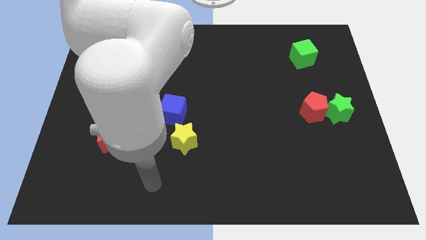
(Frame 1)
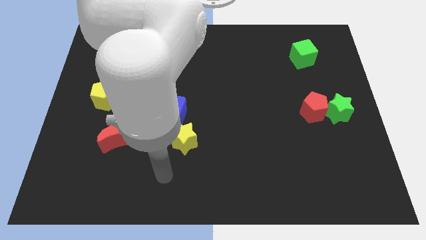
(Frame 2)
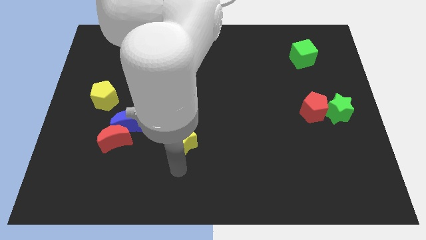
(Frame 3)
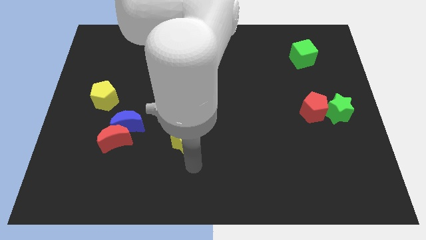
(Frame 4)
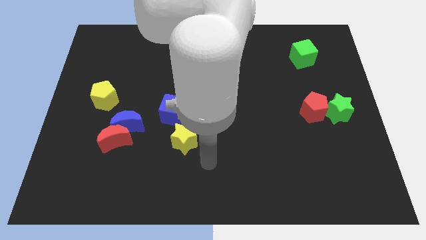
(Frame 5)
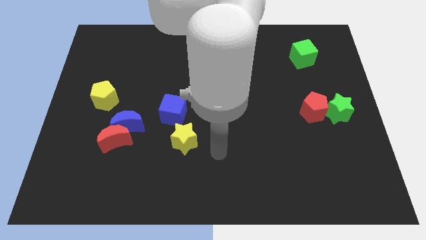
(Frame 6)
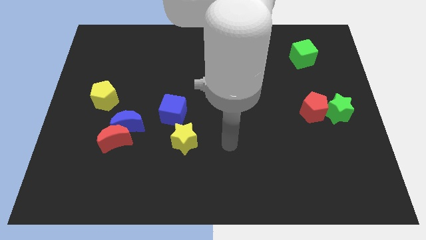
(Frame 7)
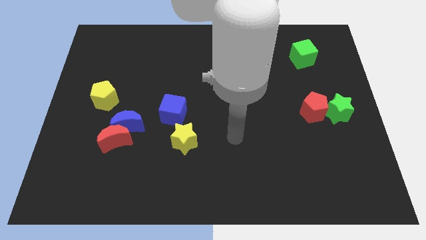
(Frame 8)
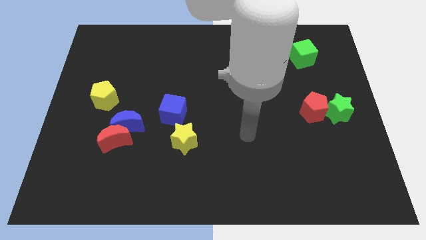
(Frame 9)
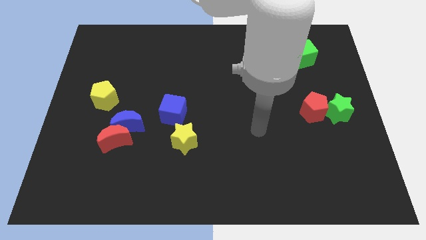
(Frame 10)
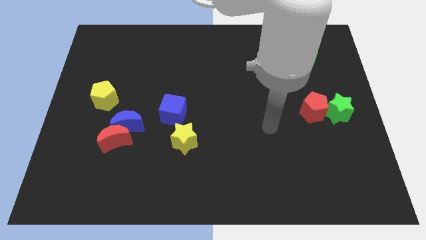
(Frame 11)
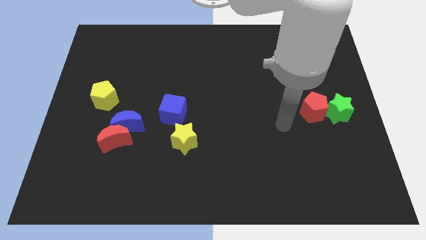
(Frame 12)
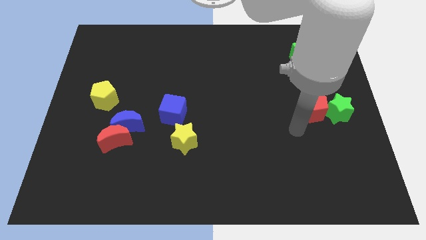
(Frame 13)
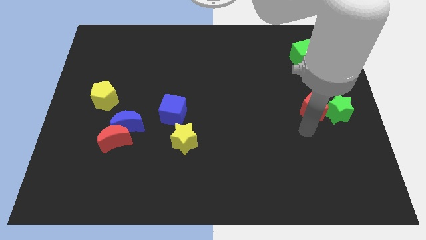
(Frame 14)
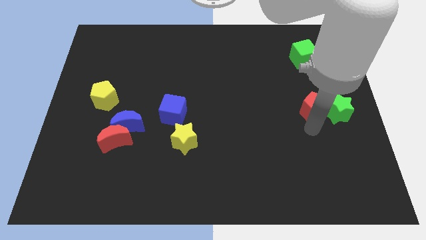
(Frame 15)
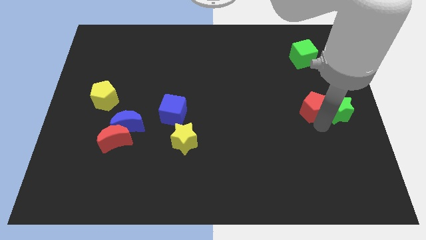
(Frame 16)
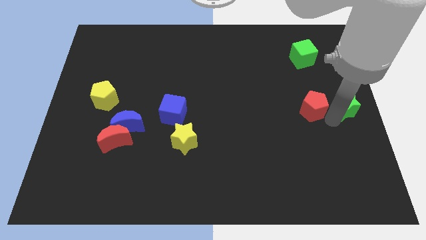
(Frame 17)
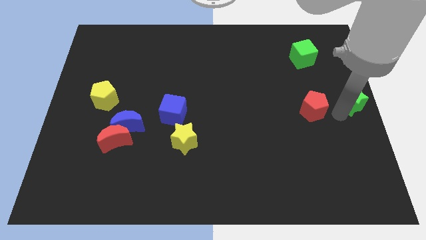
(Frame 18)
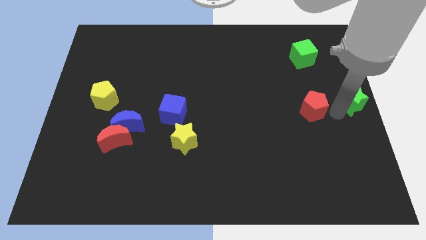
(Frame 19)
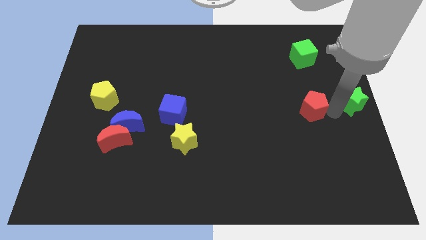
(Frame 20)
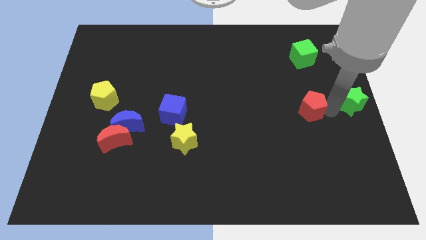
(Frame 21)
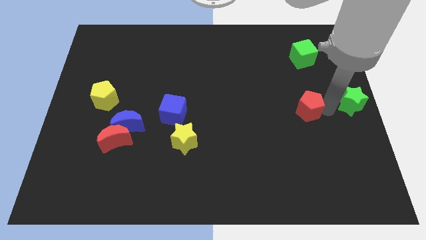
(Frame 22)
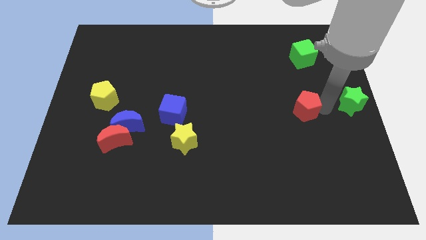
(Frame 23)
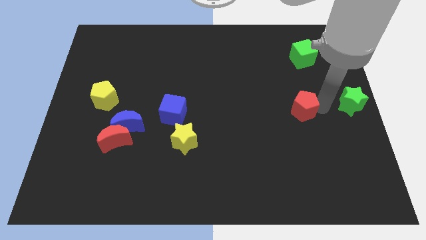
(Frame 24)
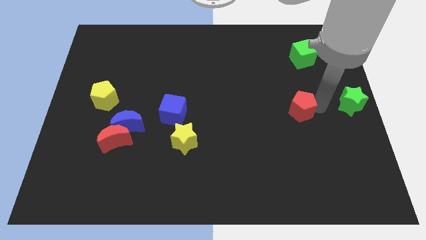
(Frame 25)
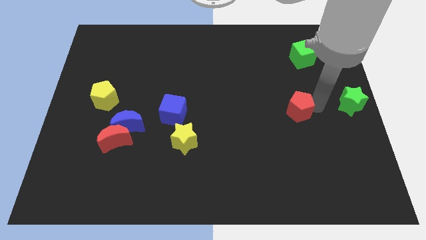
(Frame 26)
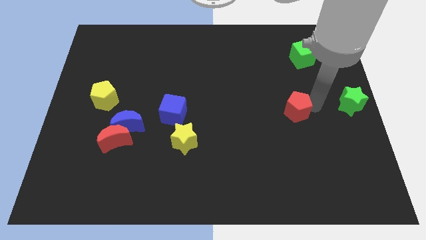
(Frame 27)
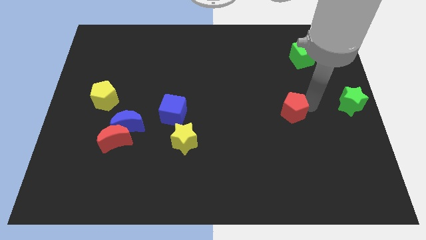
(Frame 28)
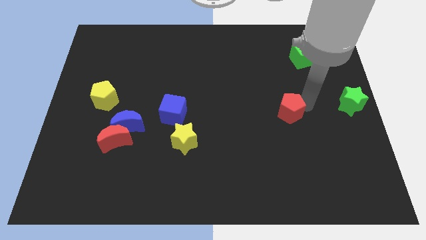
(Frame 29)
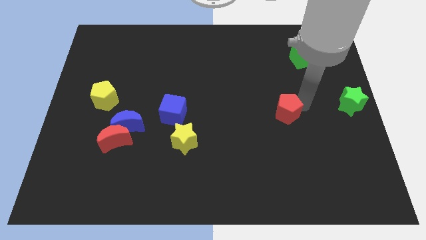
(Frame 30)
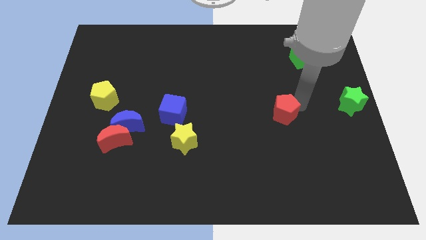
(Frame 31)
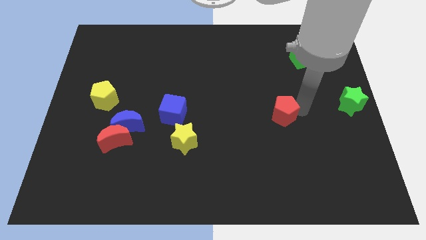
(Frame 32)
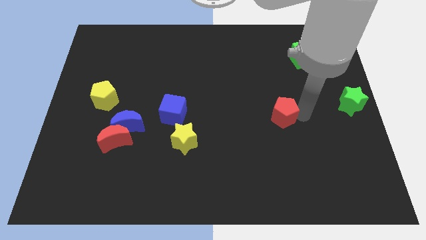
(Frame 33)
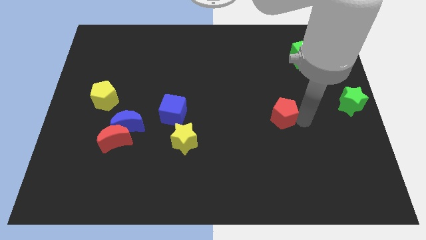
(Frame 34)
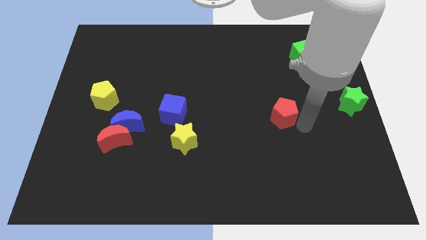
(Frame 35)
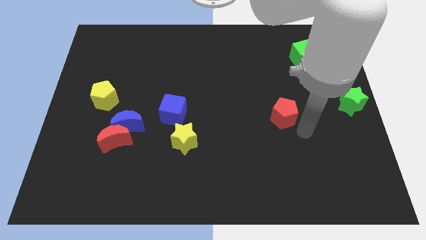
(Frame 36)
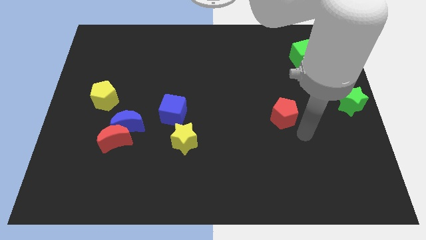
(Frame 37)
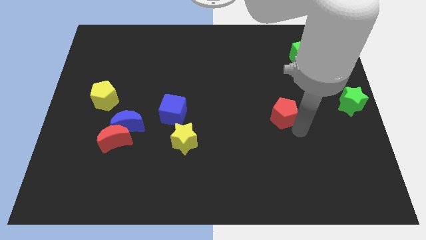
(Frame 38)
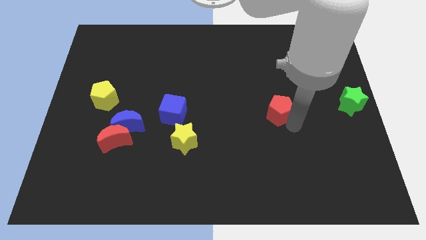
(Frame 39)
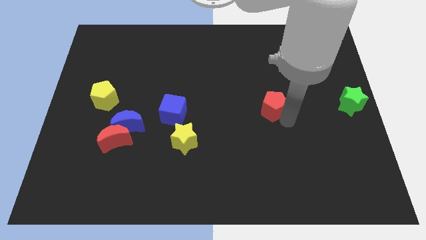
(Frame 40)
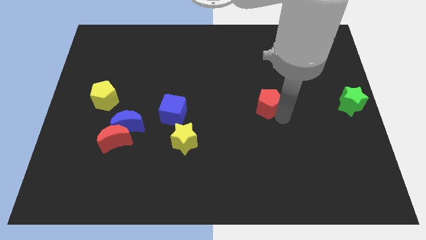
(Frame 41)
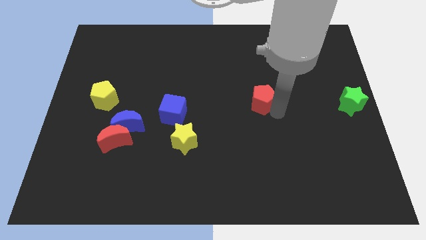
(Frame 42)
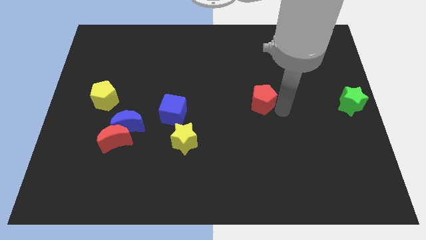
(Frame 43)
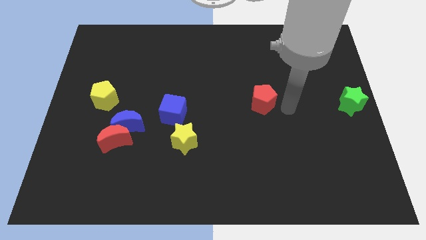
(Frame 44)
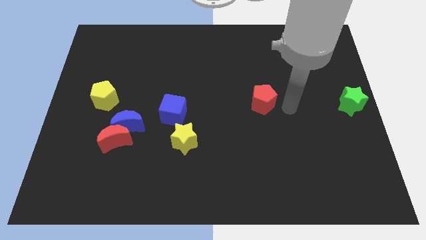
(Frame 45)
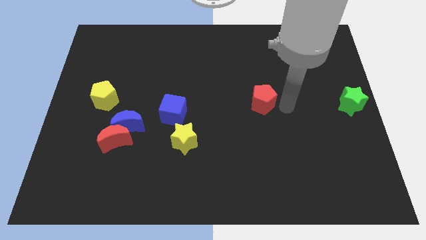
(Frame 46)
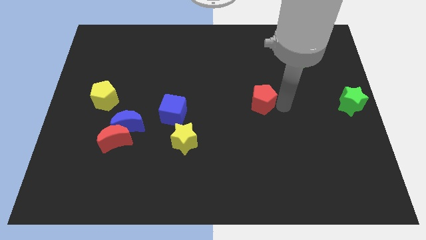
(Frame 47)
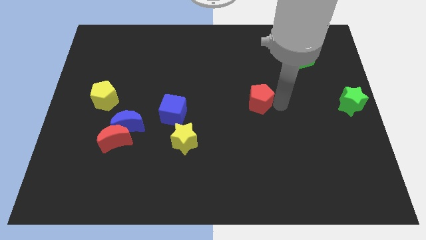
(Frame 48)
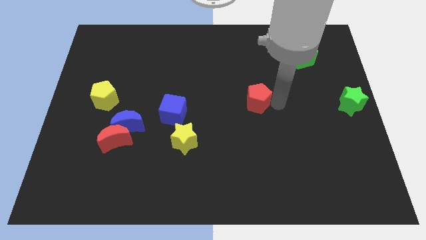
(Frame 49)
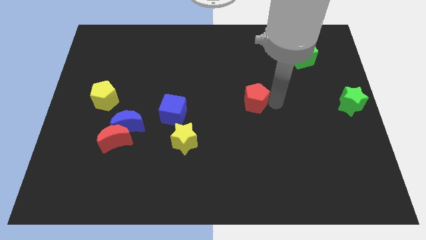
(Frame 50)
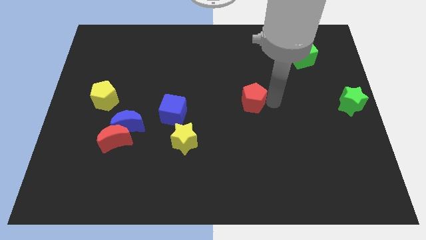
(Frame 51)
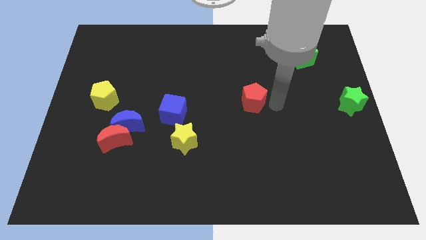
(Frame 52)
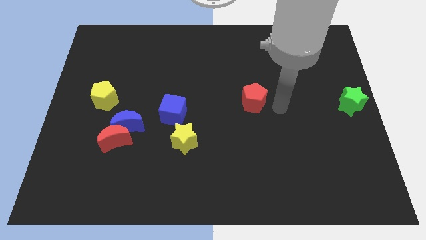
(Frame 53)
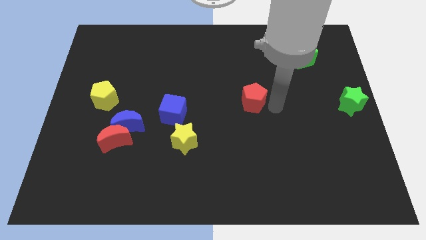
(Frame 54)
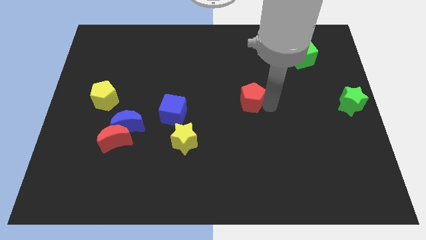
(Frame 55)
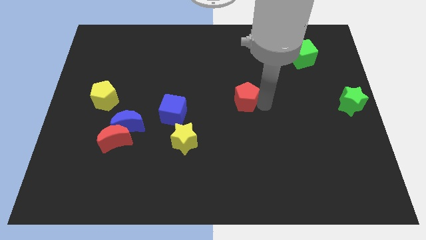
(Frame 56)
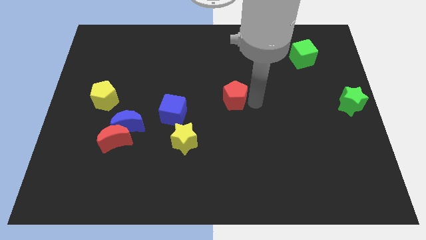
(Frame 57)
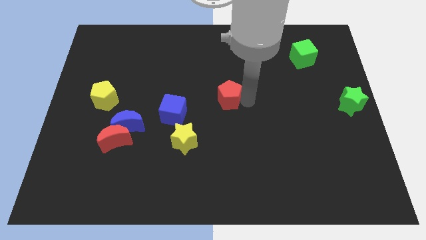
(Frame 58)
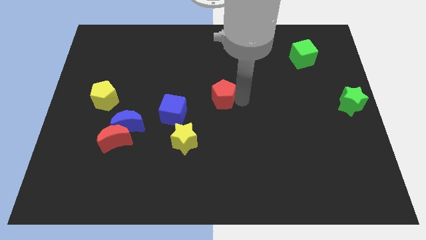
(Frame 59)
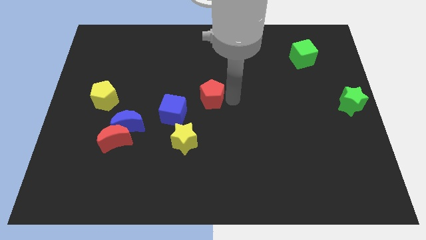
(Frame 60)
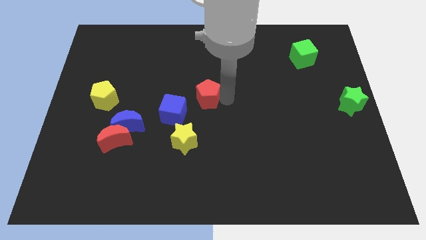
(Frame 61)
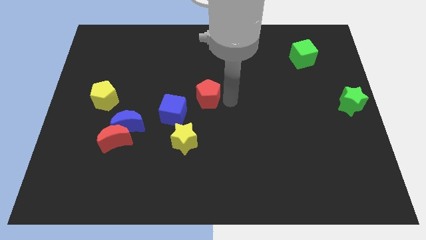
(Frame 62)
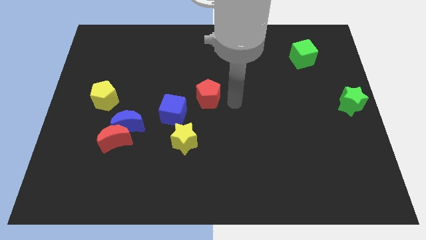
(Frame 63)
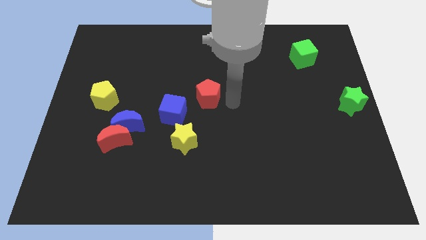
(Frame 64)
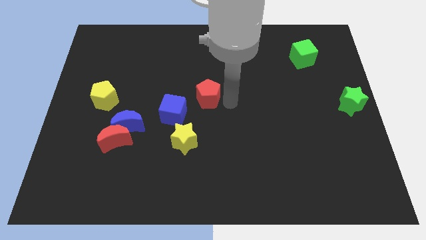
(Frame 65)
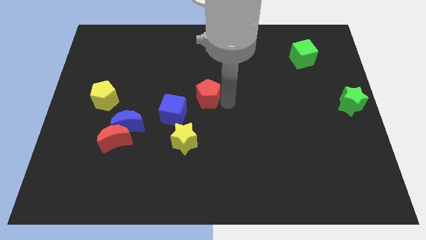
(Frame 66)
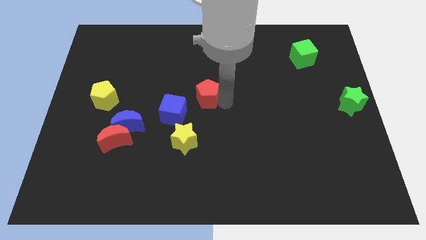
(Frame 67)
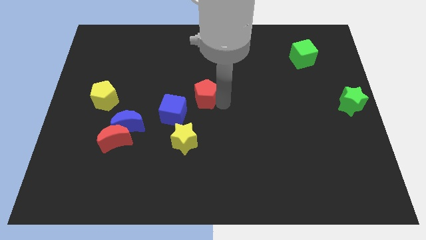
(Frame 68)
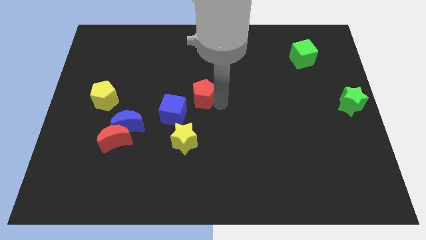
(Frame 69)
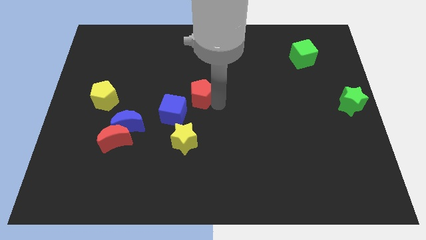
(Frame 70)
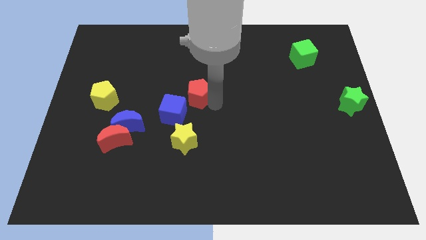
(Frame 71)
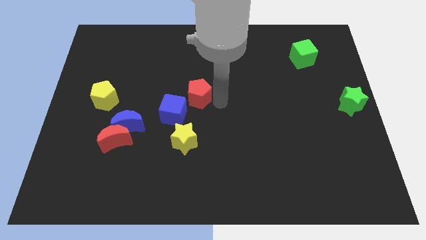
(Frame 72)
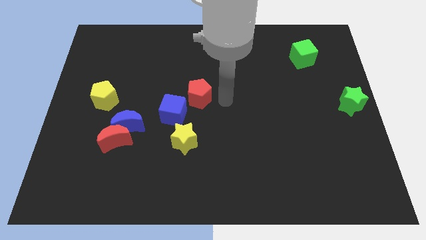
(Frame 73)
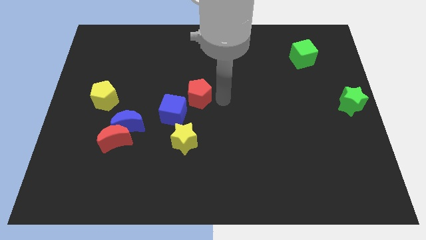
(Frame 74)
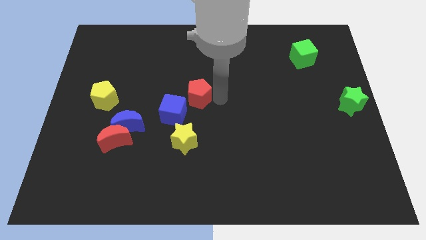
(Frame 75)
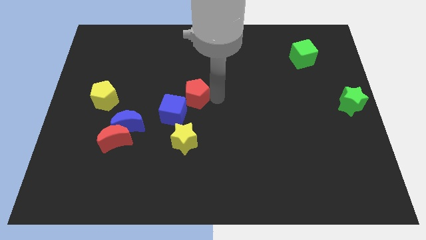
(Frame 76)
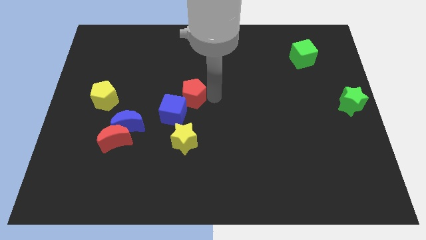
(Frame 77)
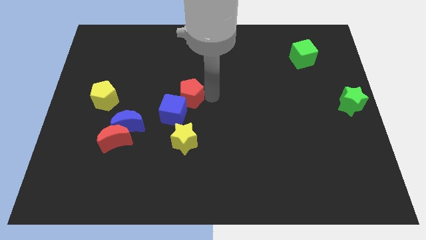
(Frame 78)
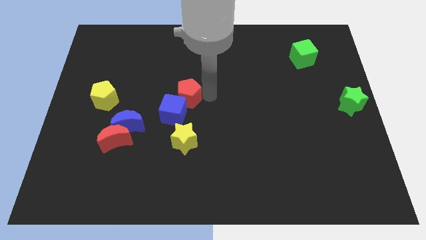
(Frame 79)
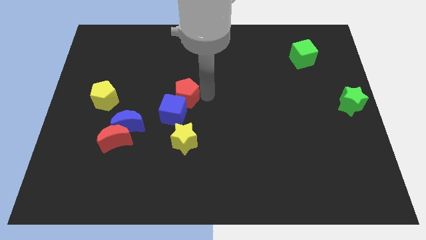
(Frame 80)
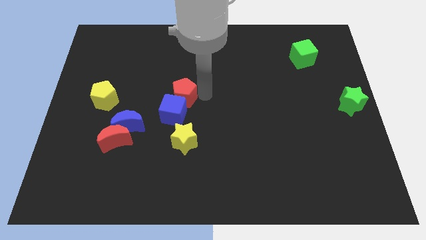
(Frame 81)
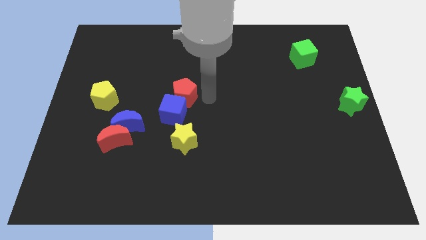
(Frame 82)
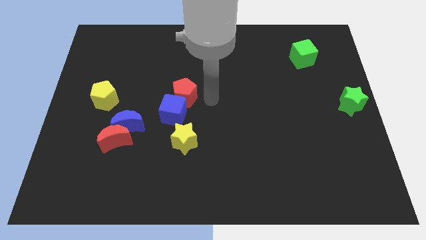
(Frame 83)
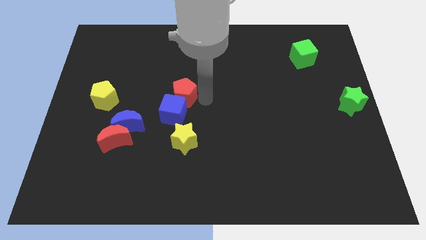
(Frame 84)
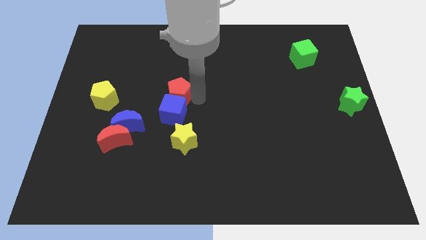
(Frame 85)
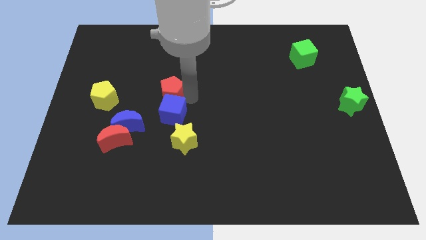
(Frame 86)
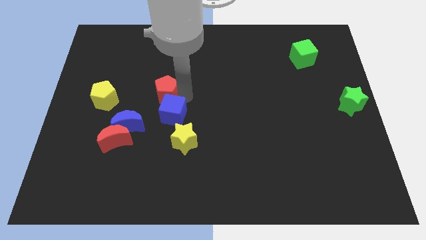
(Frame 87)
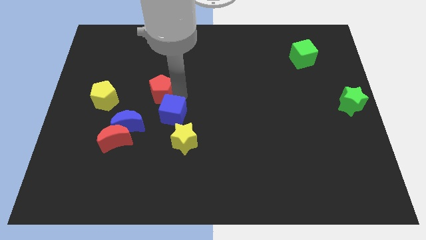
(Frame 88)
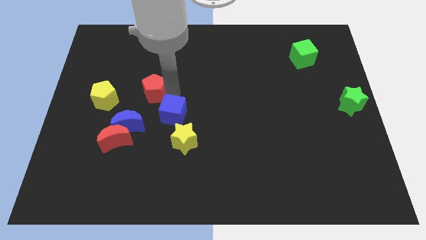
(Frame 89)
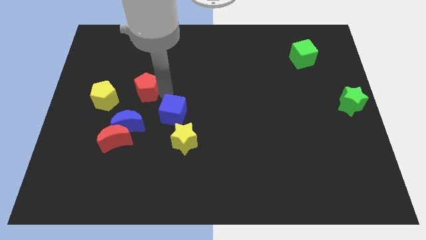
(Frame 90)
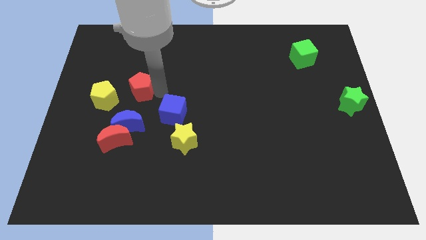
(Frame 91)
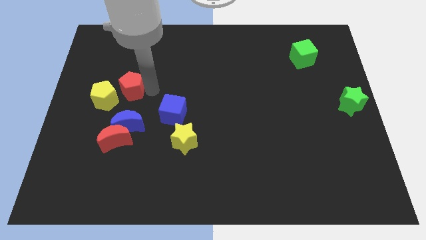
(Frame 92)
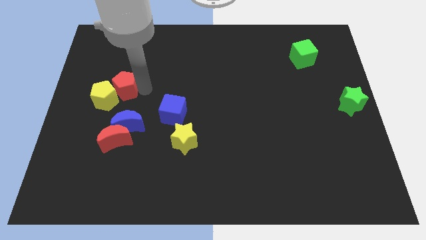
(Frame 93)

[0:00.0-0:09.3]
move the red pentagon towards the yellow pentagon
